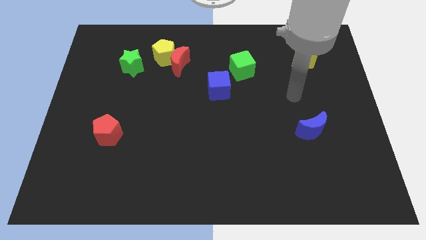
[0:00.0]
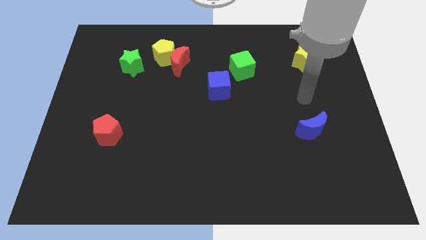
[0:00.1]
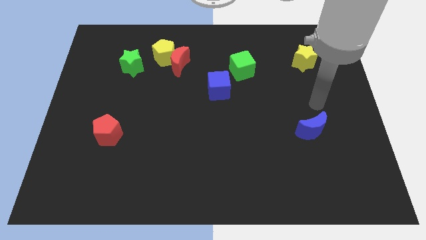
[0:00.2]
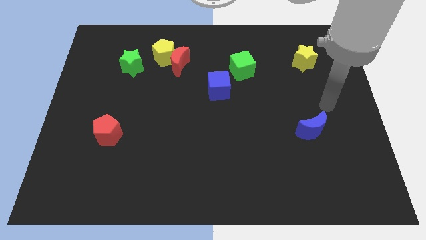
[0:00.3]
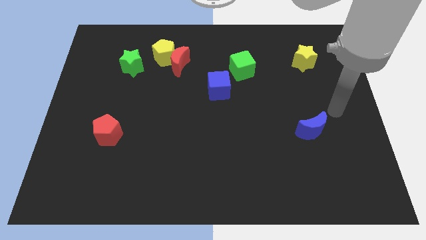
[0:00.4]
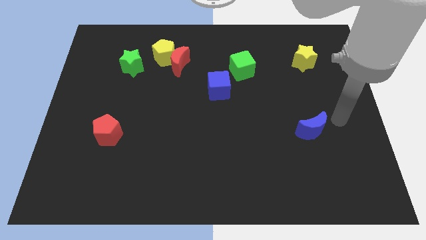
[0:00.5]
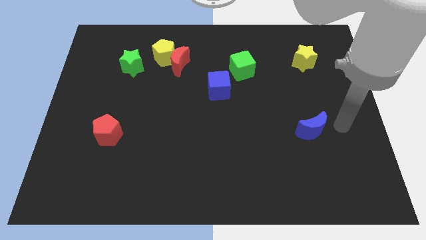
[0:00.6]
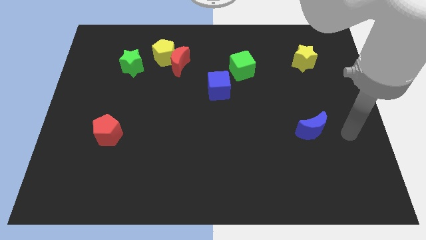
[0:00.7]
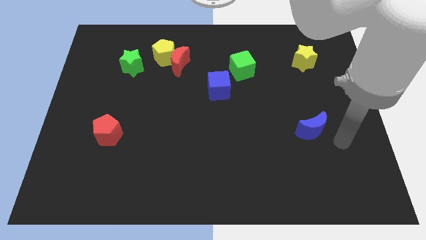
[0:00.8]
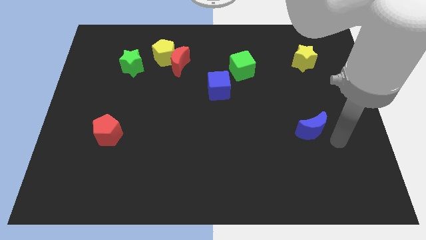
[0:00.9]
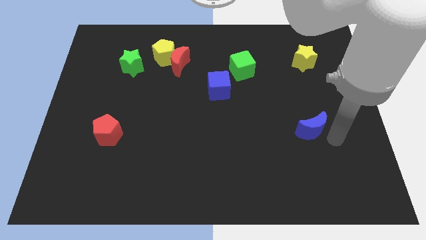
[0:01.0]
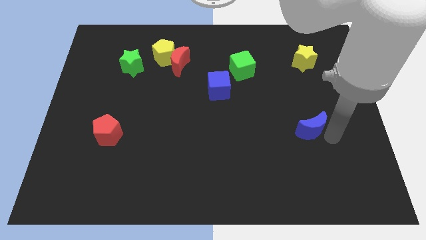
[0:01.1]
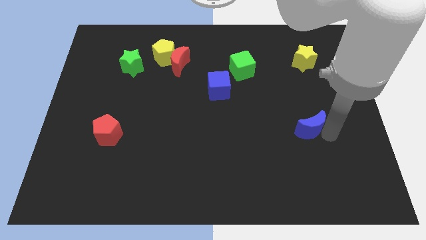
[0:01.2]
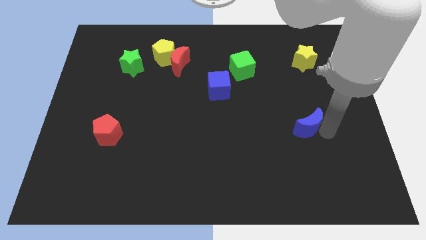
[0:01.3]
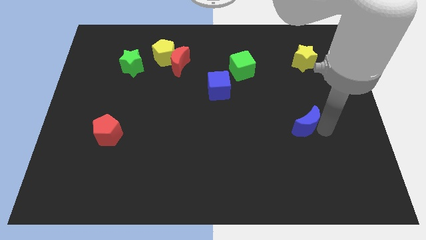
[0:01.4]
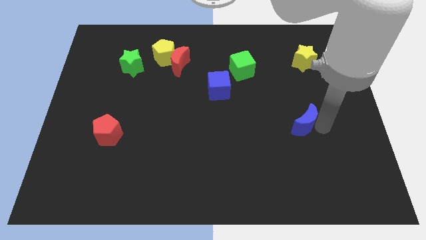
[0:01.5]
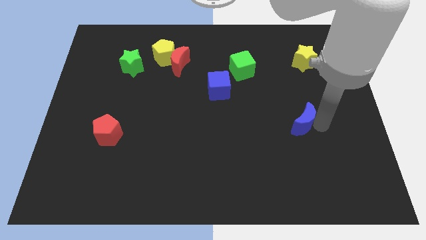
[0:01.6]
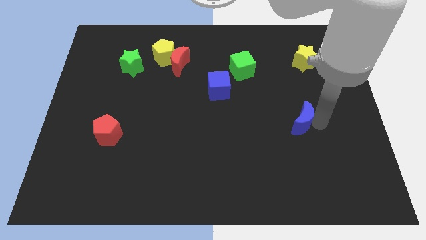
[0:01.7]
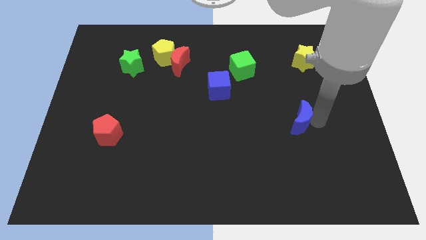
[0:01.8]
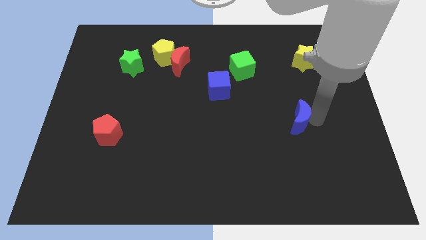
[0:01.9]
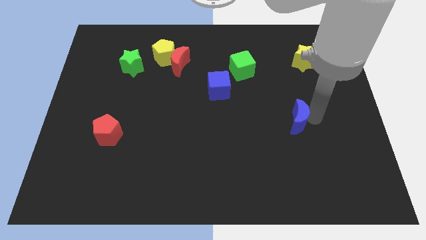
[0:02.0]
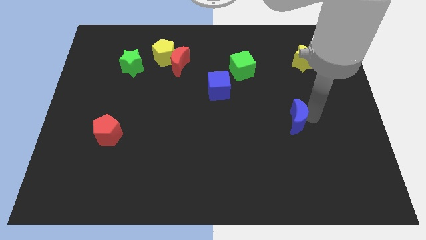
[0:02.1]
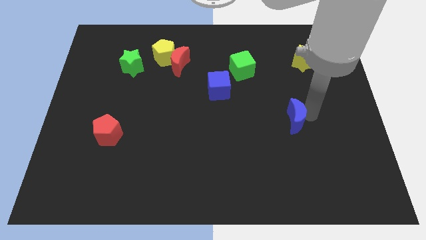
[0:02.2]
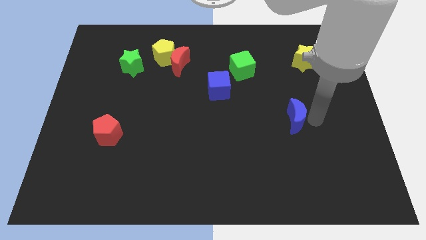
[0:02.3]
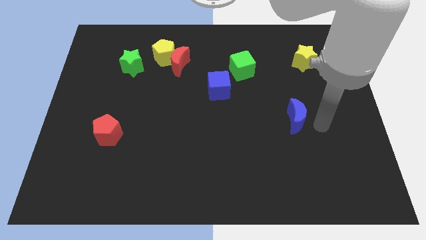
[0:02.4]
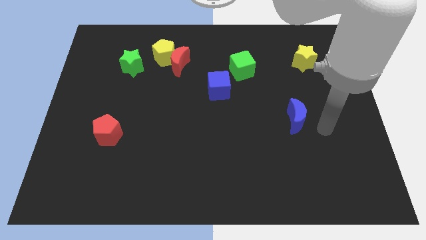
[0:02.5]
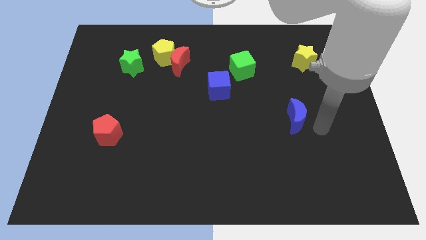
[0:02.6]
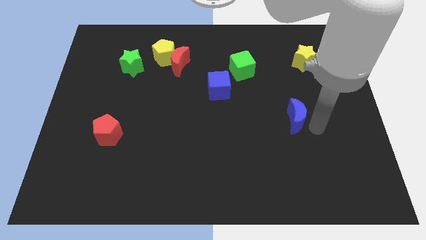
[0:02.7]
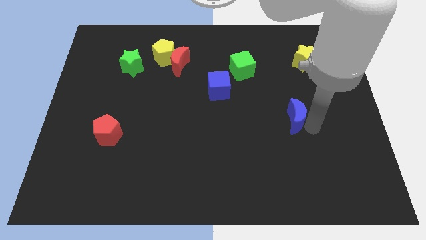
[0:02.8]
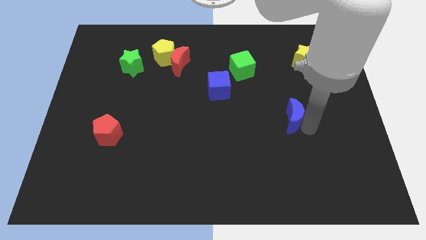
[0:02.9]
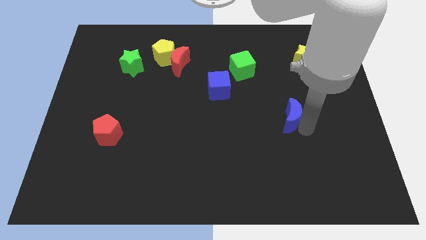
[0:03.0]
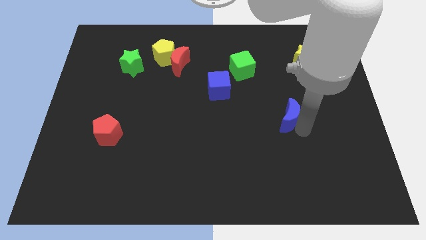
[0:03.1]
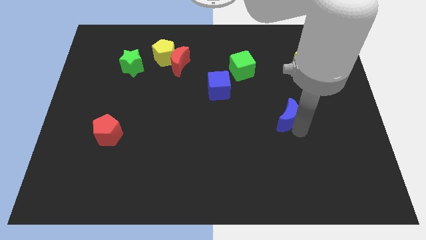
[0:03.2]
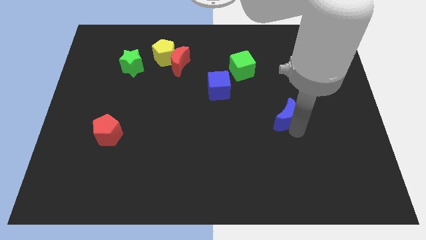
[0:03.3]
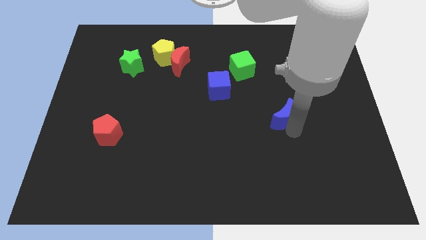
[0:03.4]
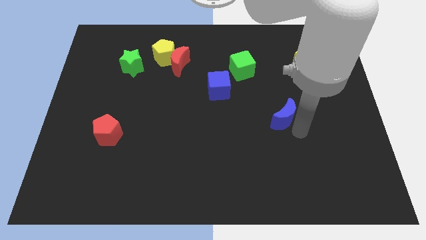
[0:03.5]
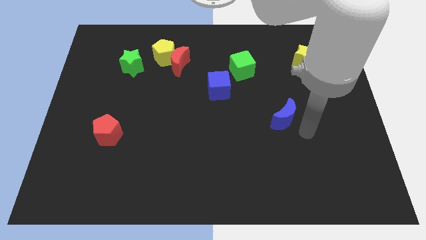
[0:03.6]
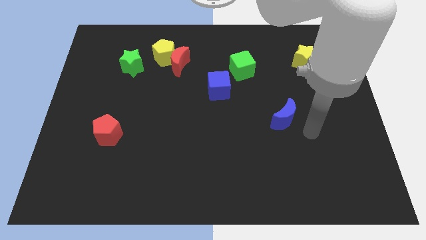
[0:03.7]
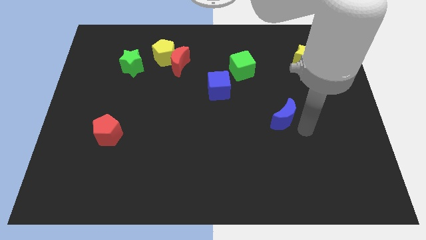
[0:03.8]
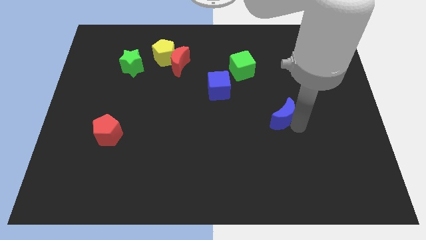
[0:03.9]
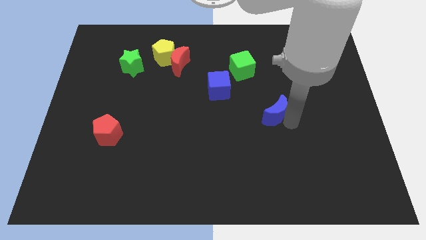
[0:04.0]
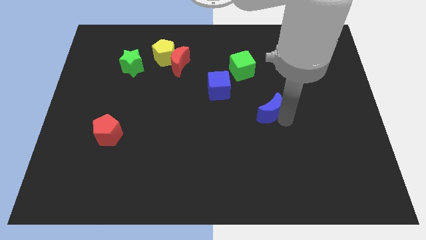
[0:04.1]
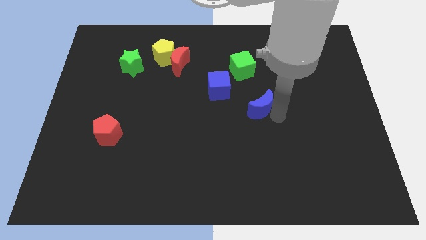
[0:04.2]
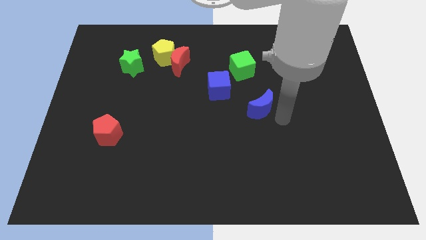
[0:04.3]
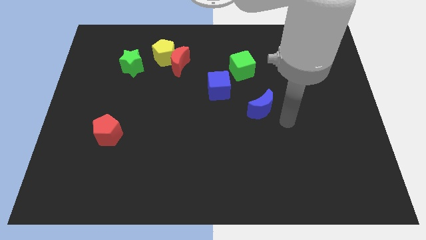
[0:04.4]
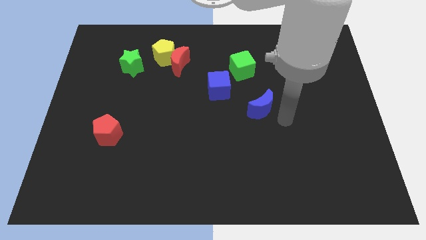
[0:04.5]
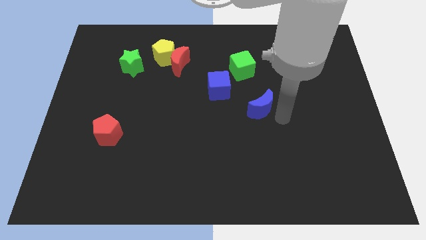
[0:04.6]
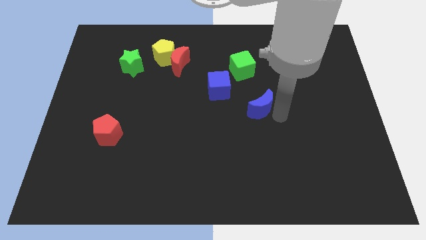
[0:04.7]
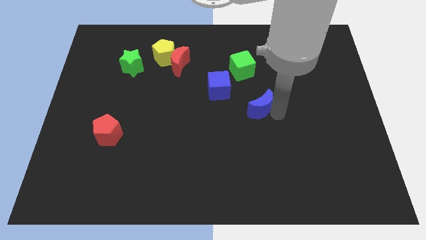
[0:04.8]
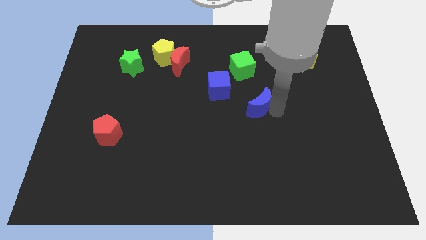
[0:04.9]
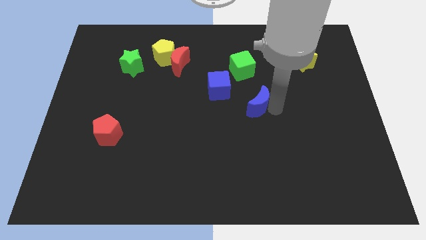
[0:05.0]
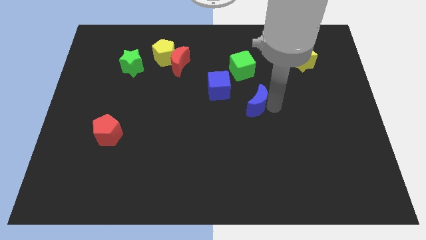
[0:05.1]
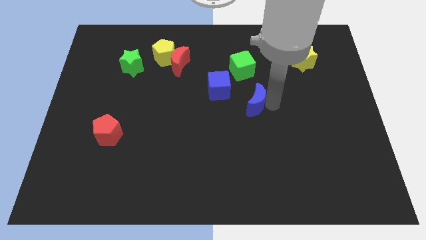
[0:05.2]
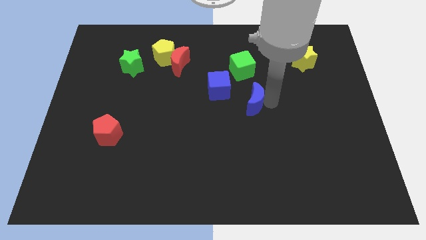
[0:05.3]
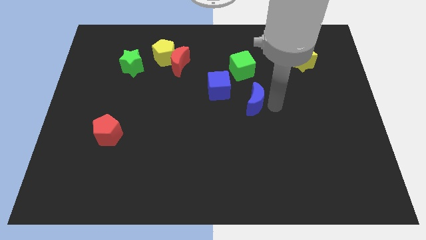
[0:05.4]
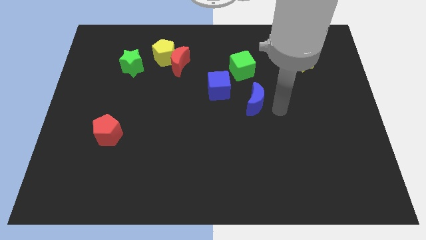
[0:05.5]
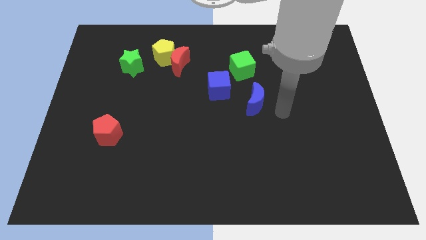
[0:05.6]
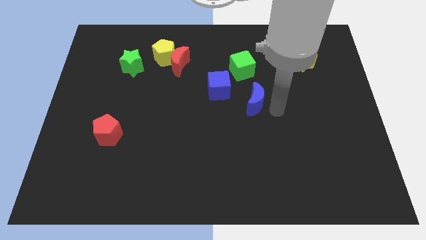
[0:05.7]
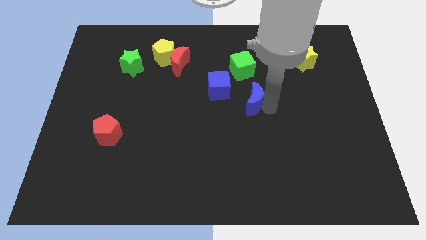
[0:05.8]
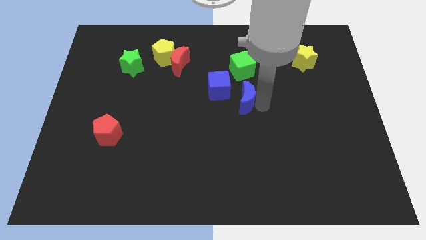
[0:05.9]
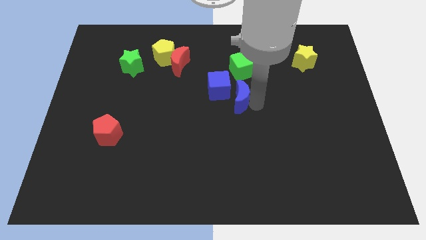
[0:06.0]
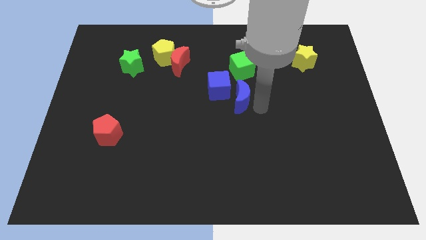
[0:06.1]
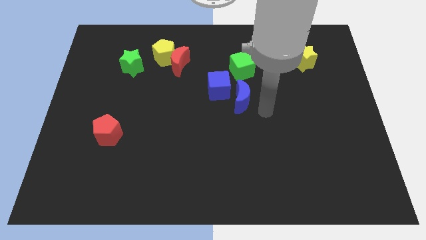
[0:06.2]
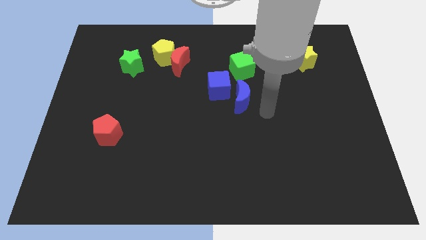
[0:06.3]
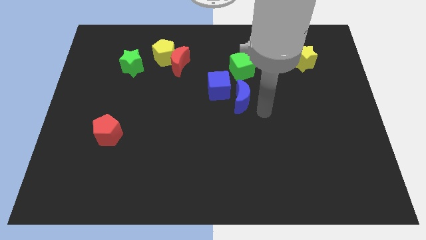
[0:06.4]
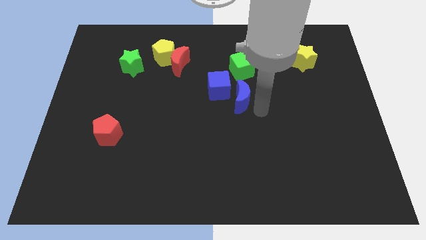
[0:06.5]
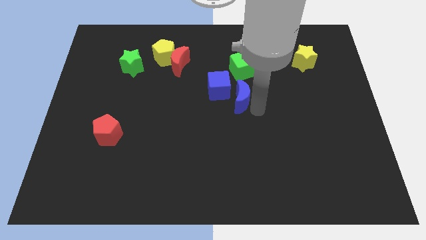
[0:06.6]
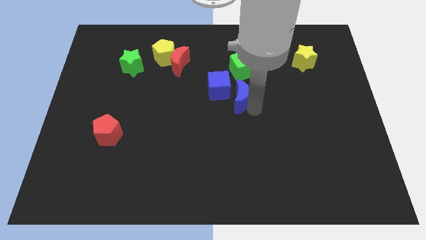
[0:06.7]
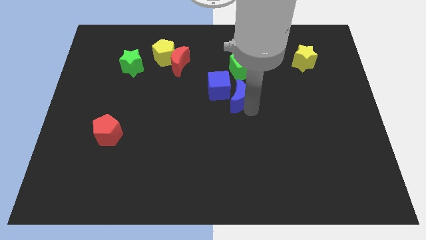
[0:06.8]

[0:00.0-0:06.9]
put the blue moon close to the blue cube
